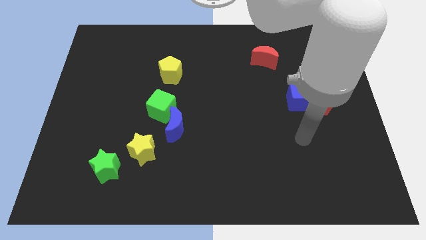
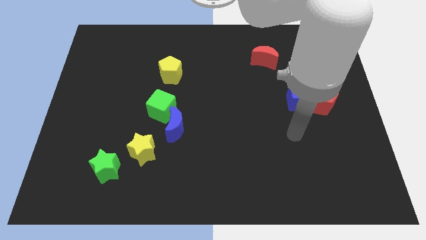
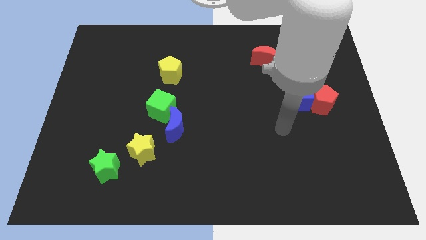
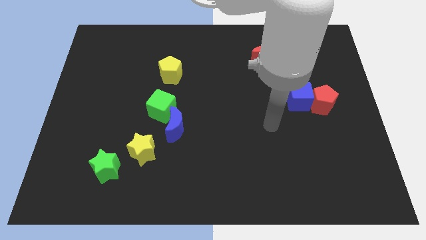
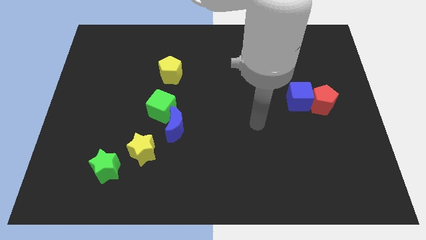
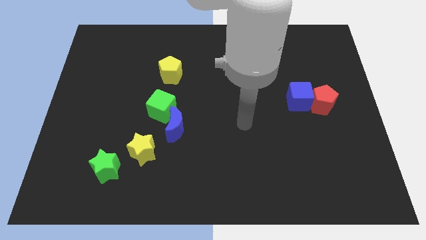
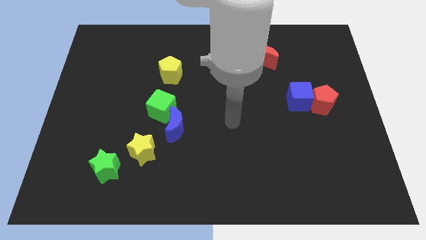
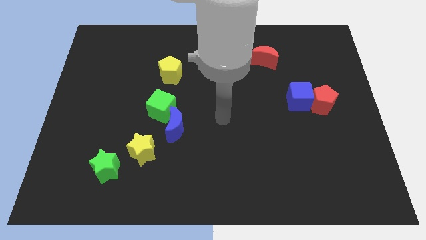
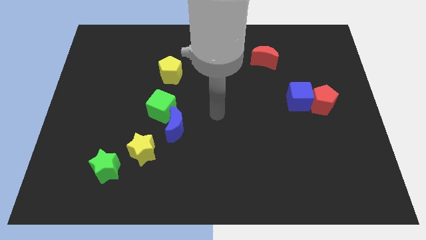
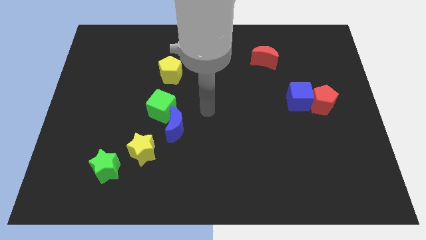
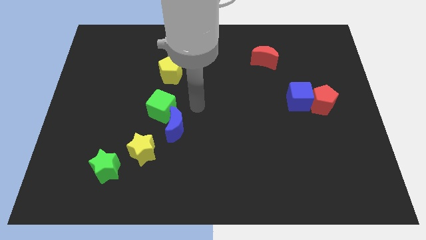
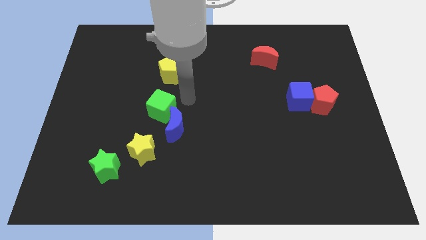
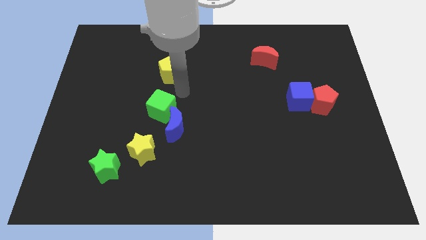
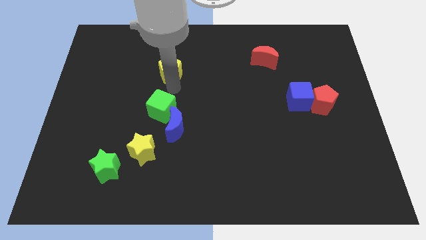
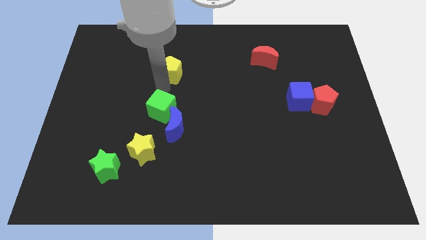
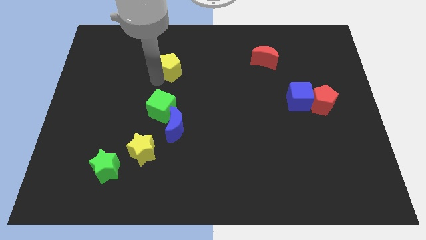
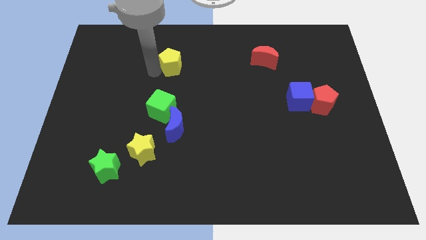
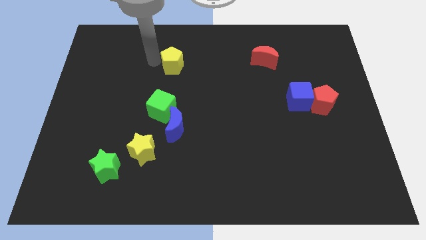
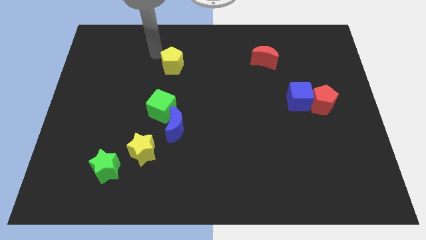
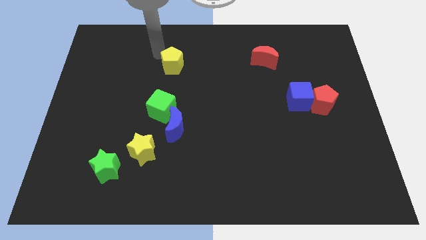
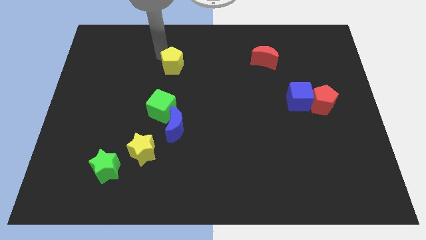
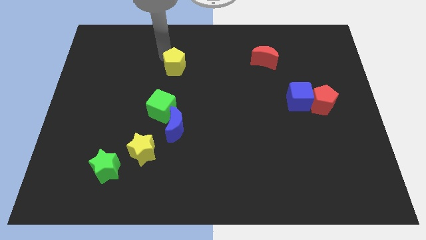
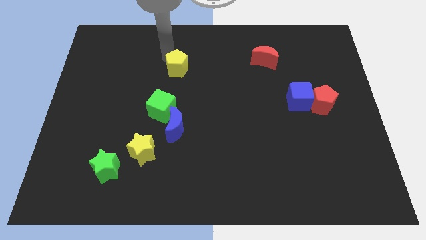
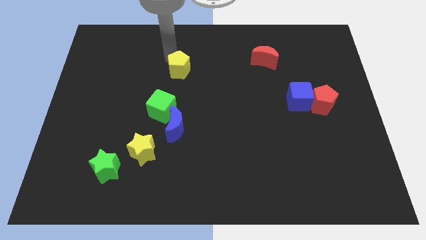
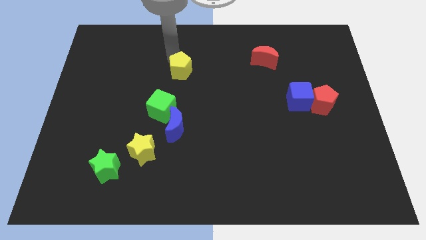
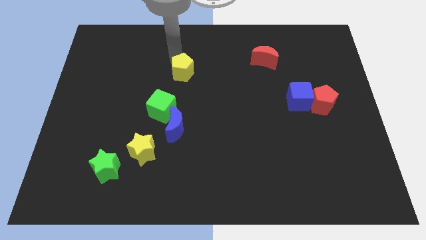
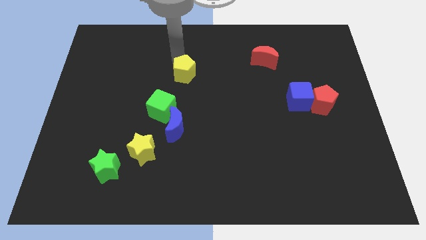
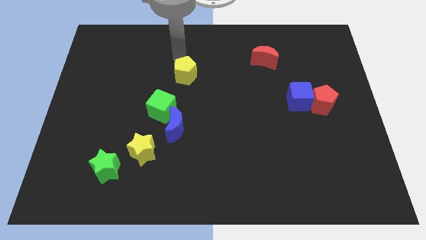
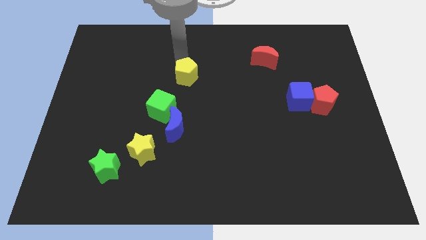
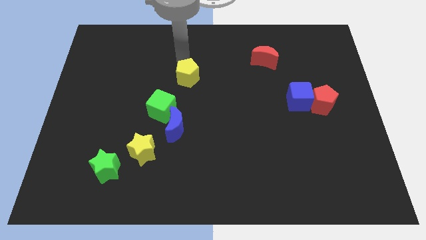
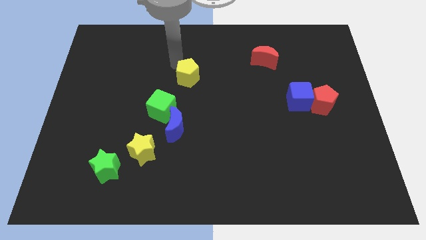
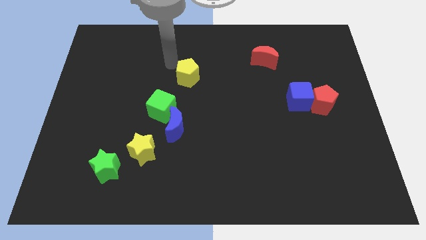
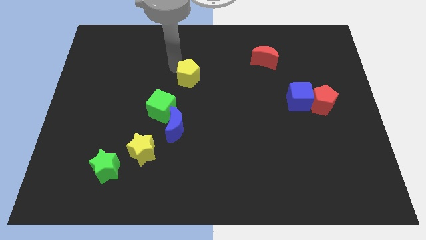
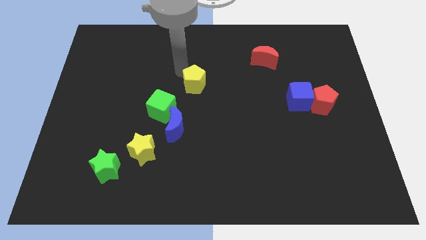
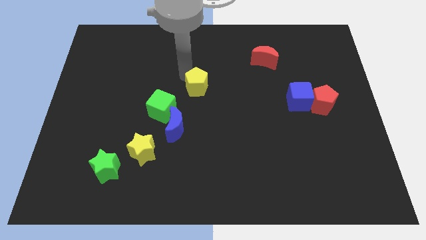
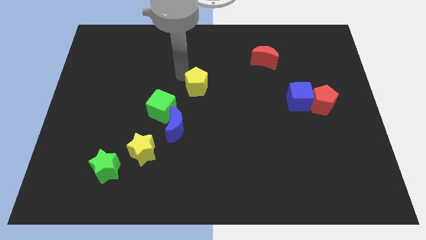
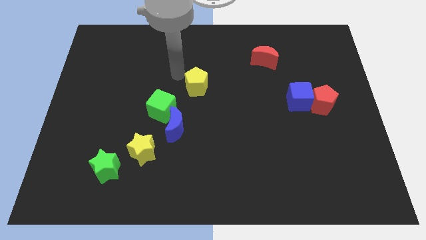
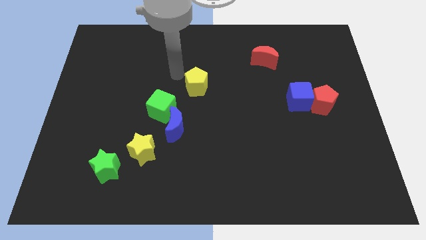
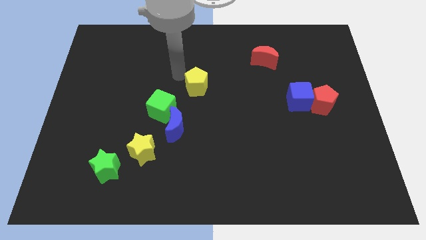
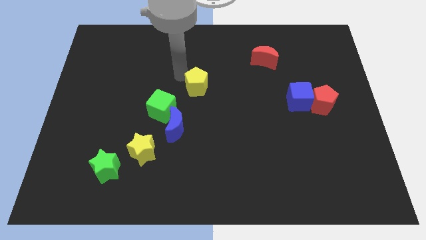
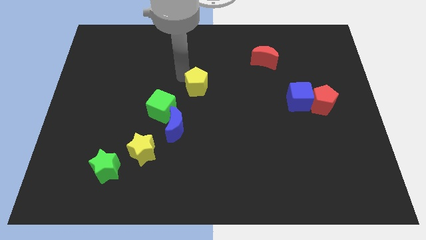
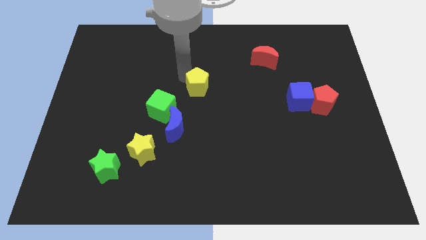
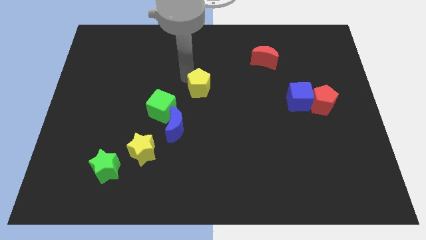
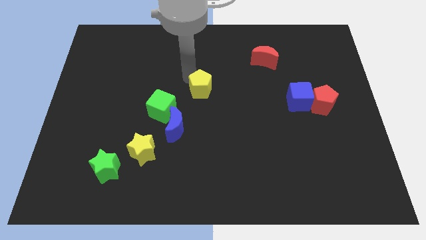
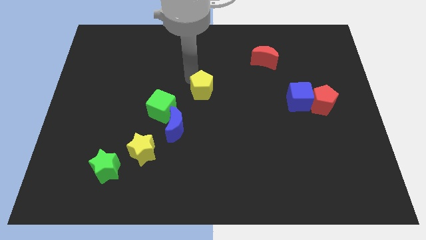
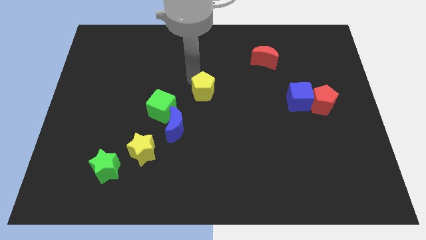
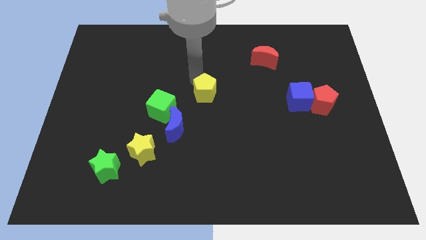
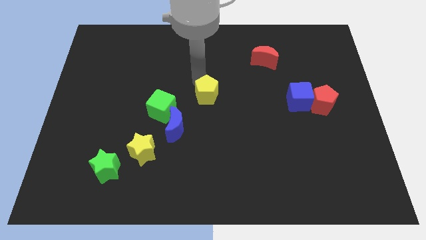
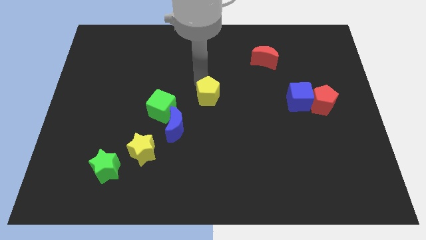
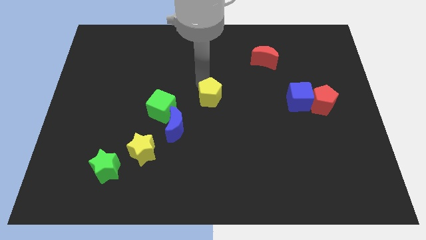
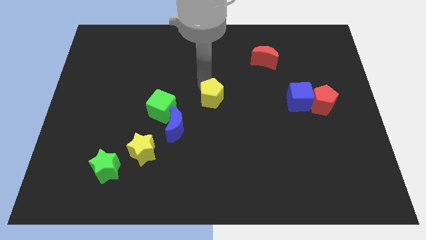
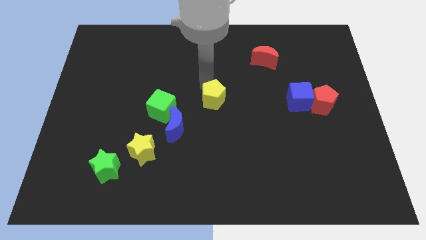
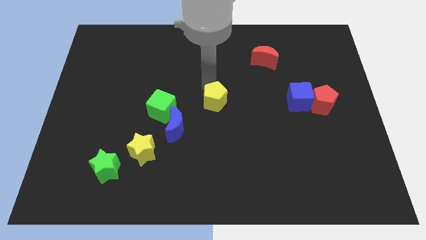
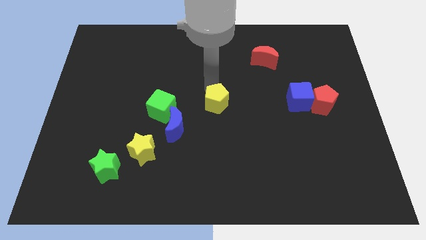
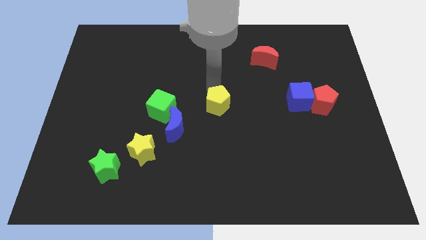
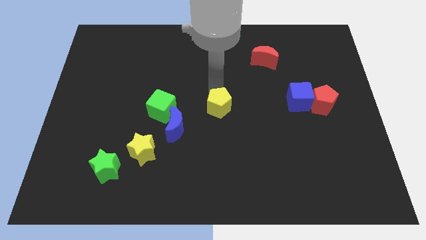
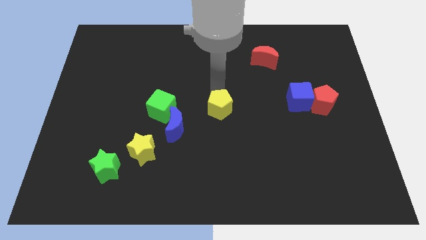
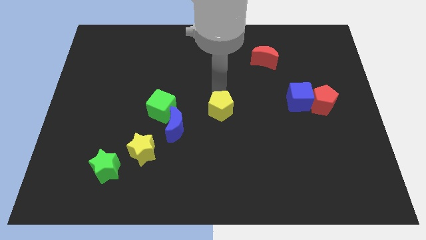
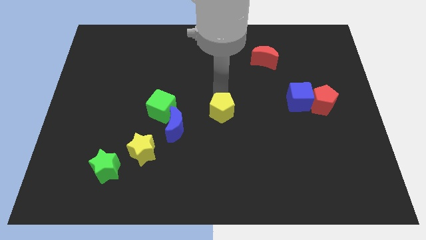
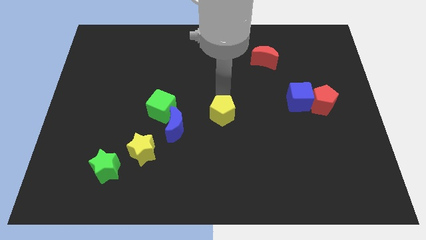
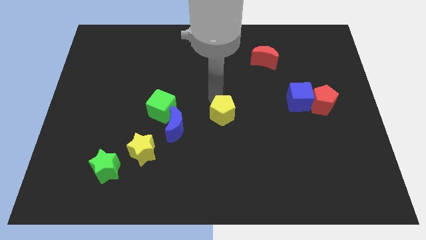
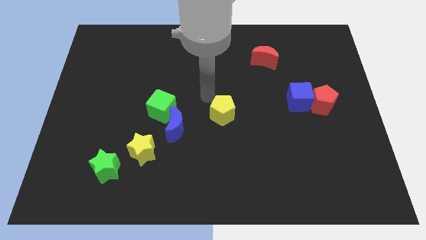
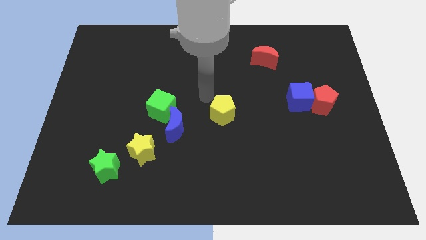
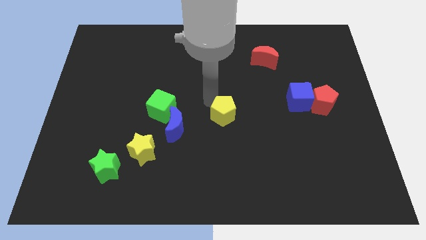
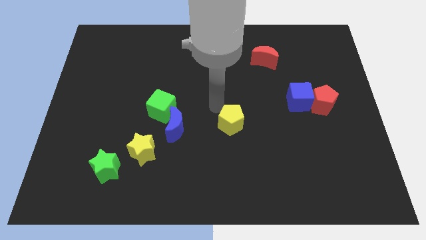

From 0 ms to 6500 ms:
move the yellow pentagon downwards and right

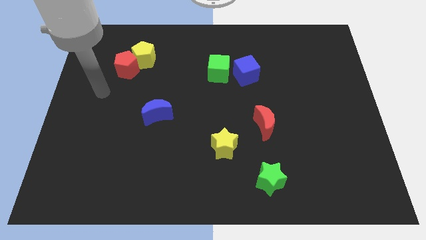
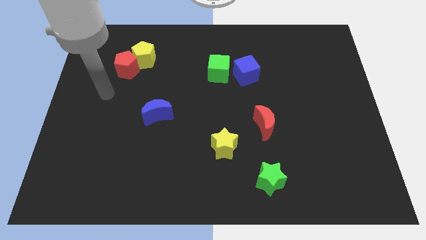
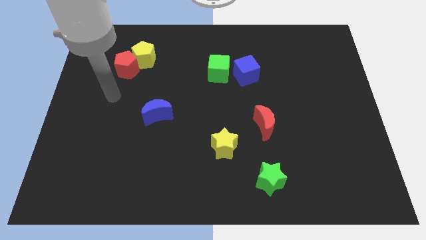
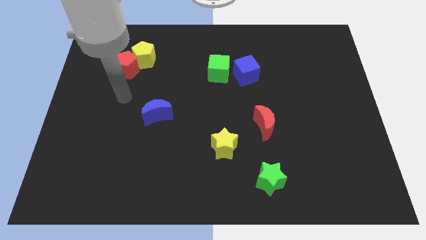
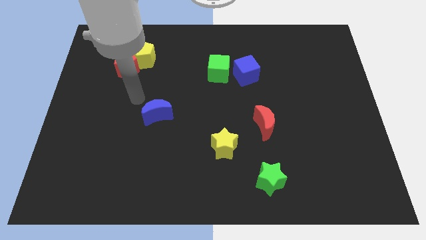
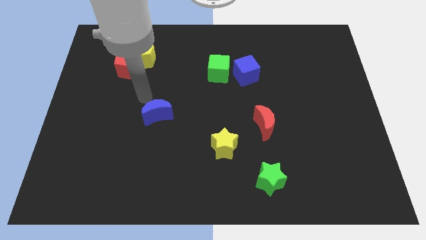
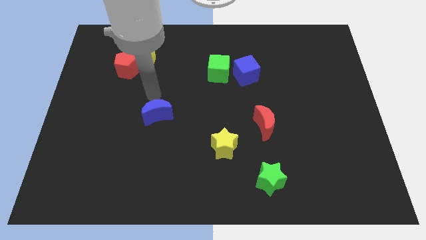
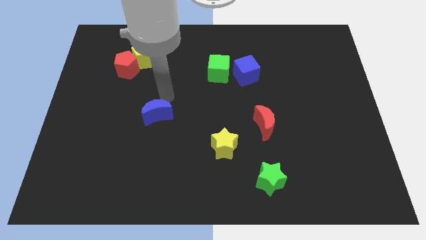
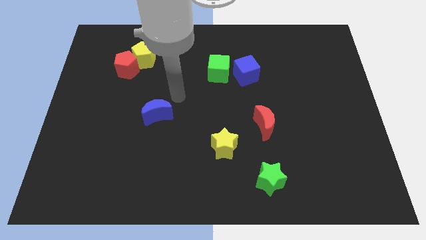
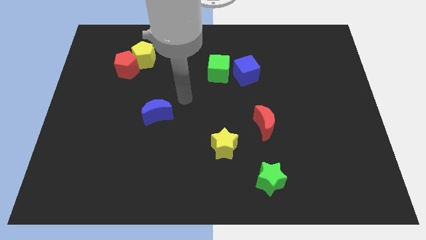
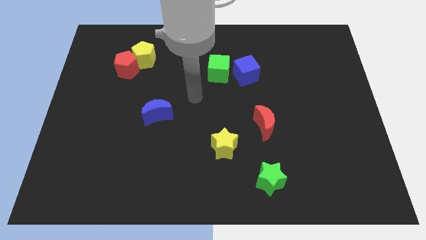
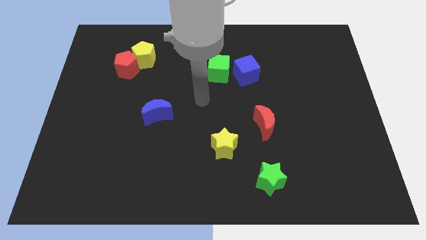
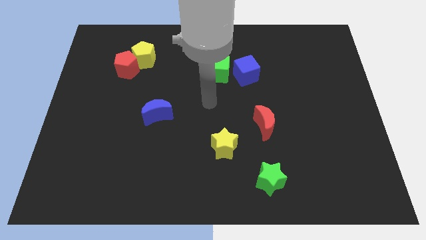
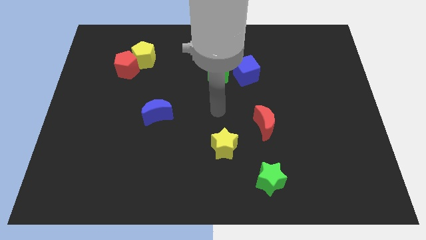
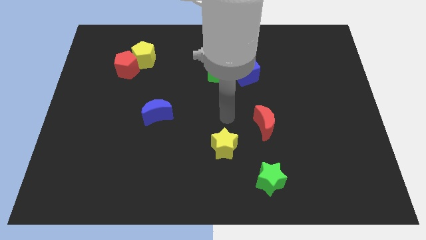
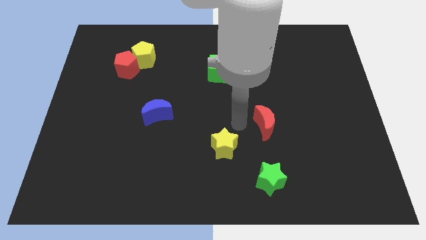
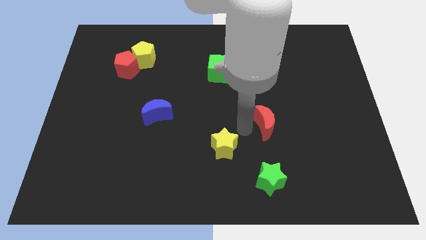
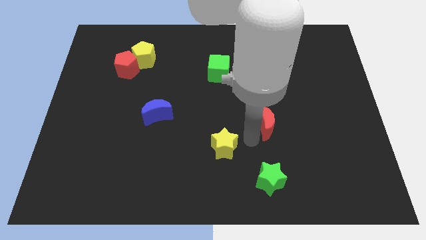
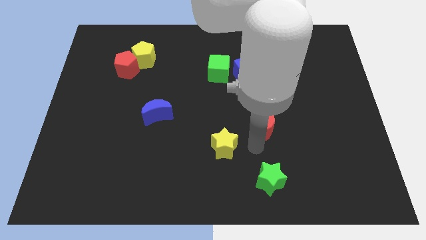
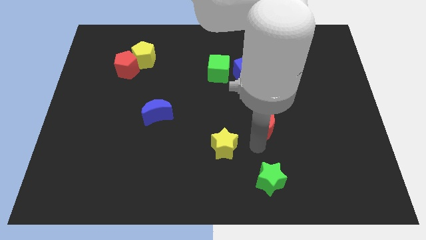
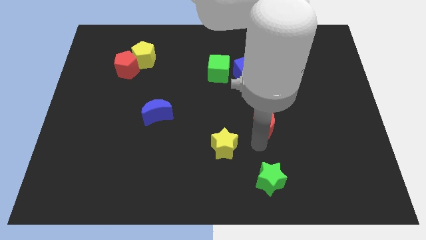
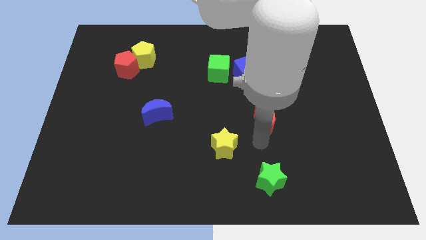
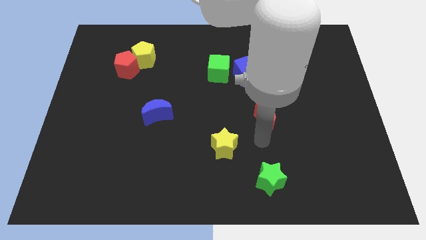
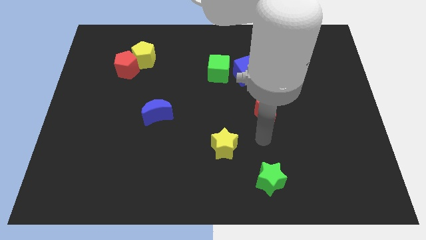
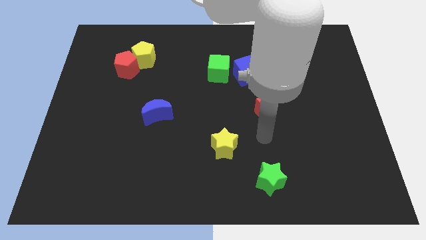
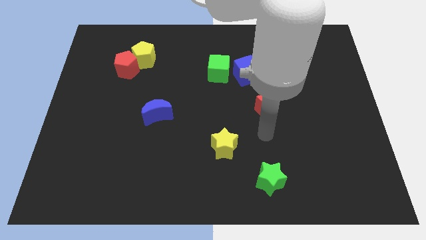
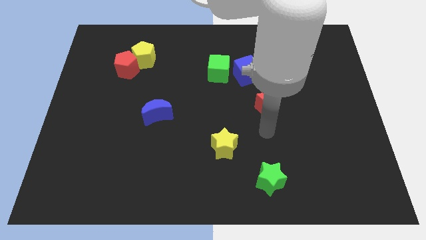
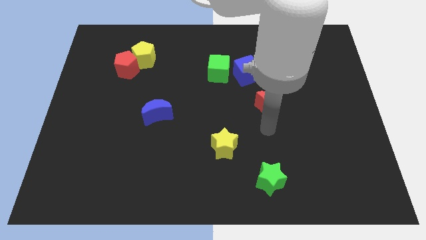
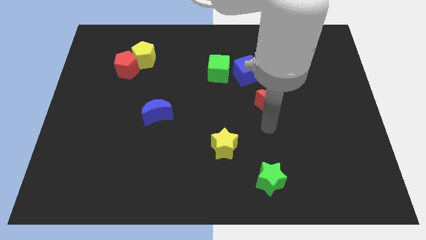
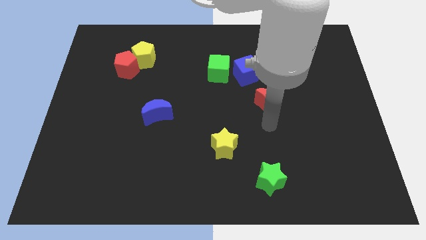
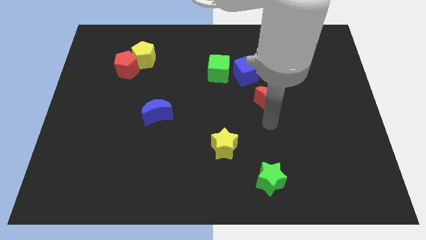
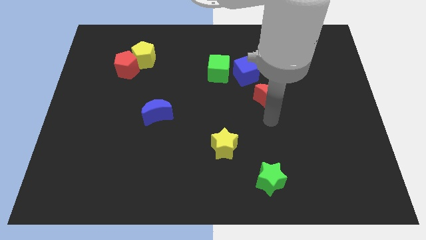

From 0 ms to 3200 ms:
slightly move the red moon up
